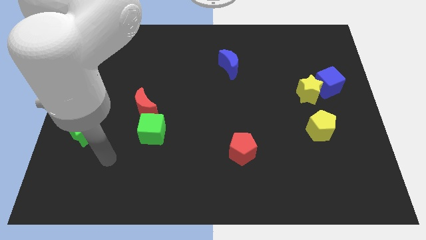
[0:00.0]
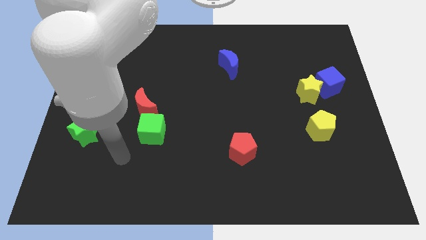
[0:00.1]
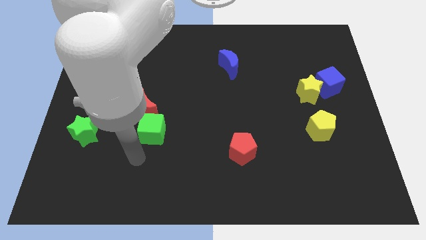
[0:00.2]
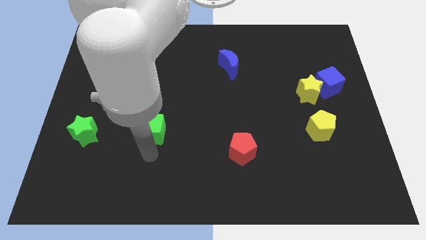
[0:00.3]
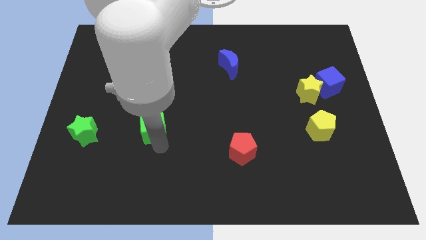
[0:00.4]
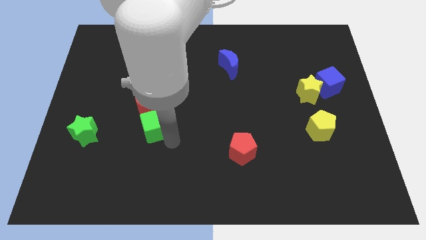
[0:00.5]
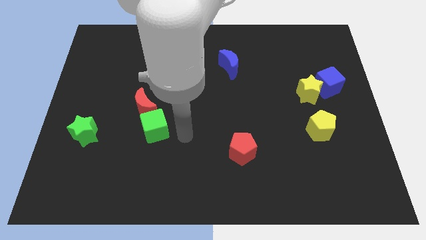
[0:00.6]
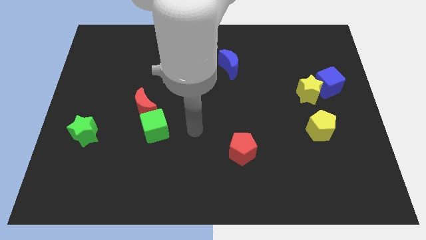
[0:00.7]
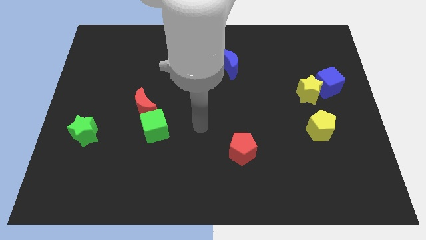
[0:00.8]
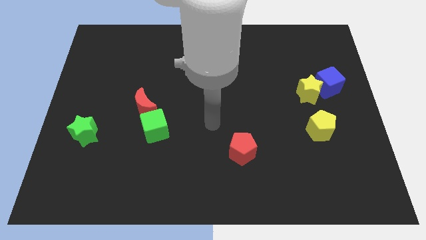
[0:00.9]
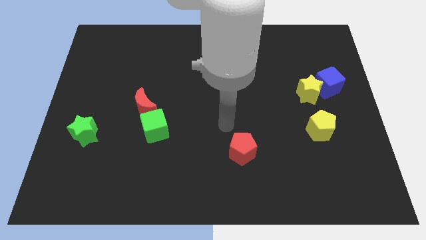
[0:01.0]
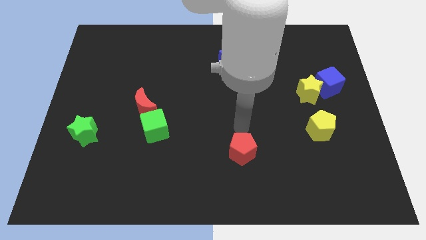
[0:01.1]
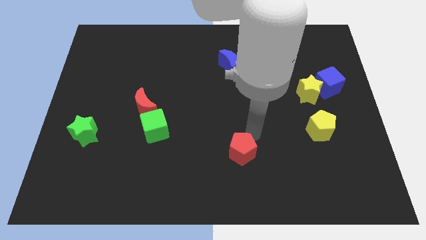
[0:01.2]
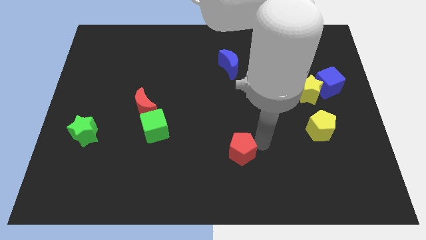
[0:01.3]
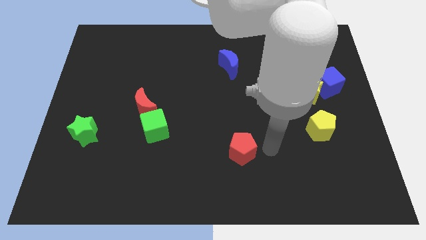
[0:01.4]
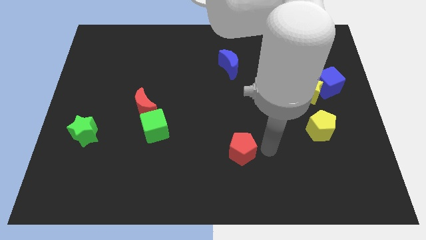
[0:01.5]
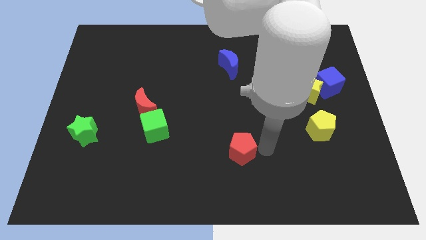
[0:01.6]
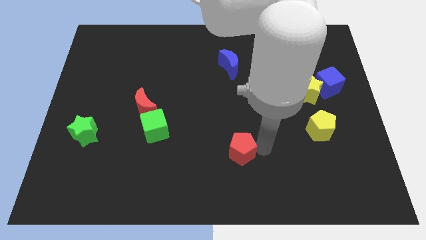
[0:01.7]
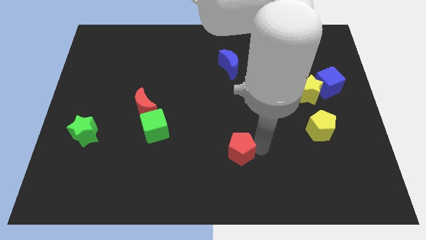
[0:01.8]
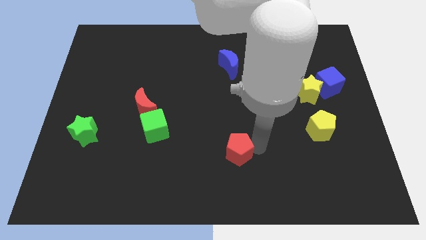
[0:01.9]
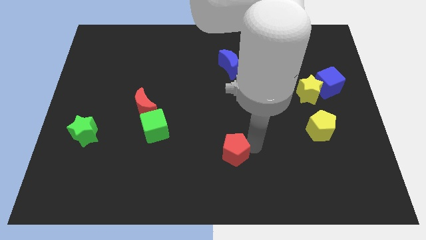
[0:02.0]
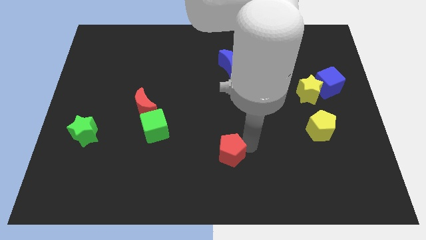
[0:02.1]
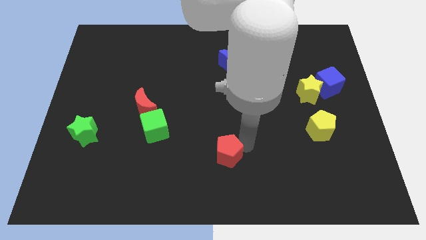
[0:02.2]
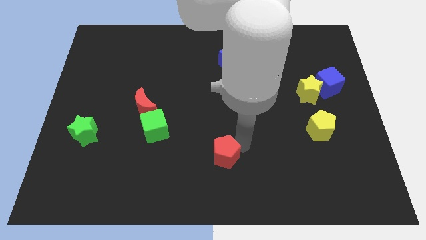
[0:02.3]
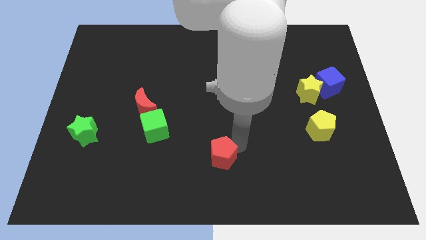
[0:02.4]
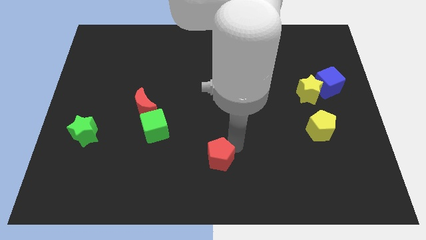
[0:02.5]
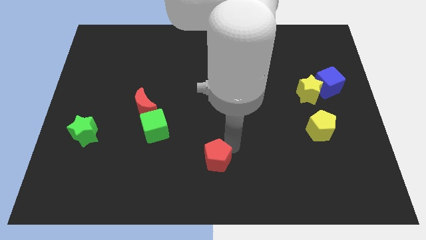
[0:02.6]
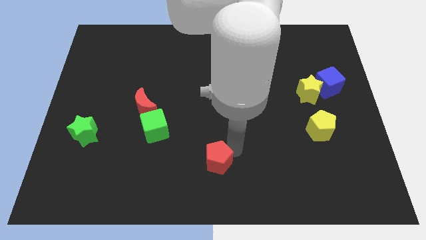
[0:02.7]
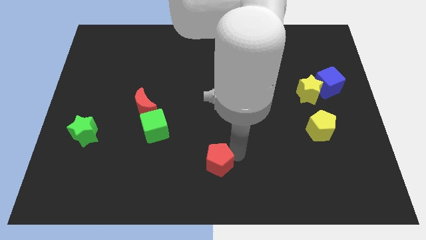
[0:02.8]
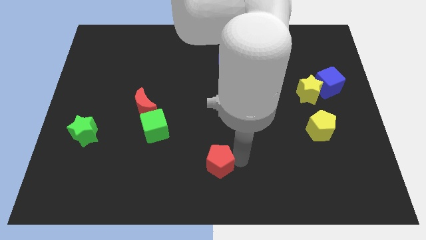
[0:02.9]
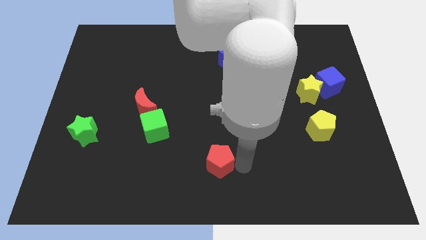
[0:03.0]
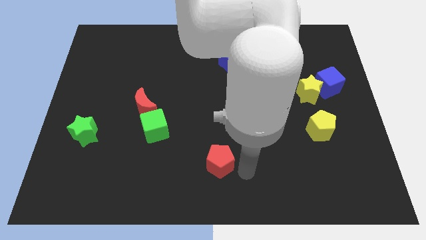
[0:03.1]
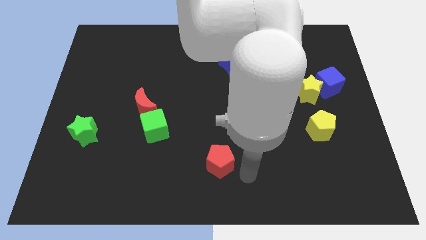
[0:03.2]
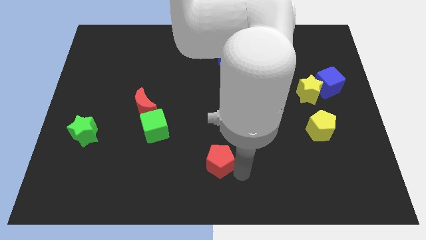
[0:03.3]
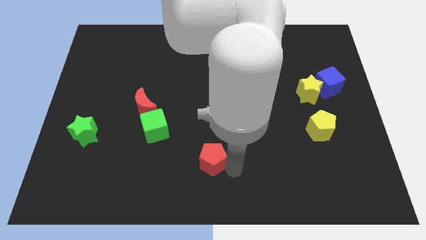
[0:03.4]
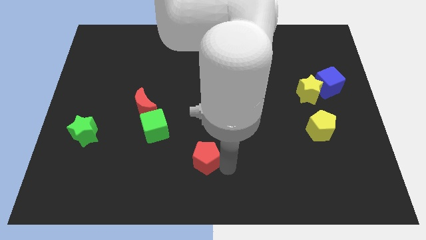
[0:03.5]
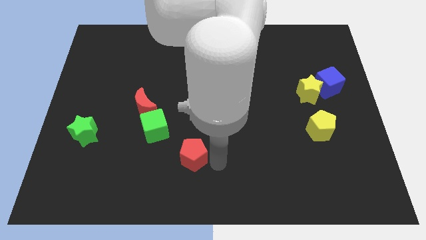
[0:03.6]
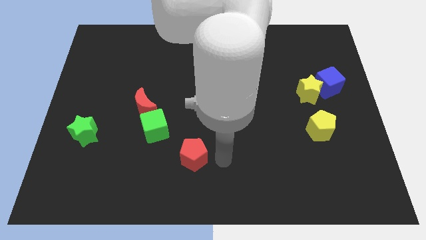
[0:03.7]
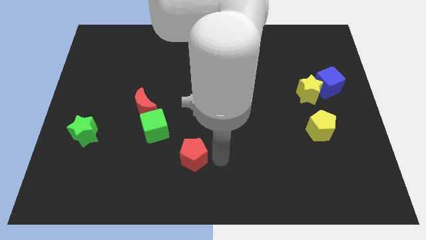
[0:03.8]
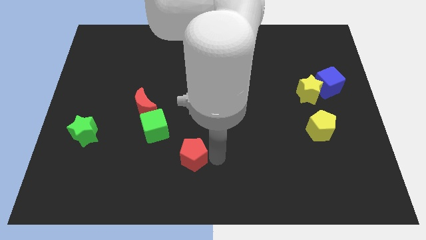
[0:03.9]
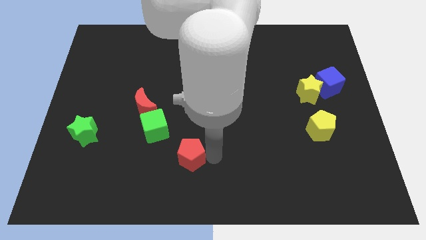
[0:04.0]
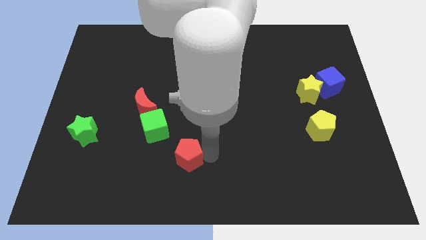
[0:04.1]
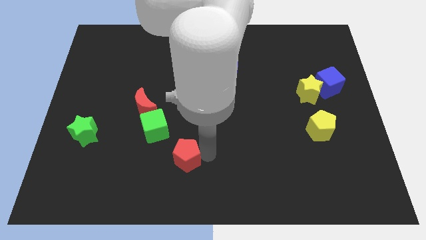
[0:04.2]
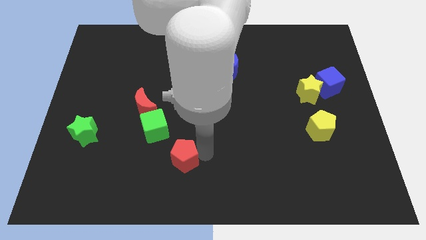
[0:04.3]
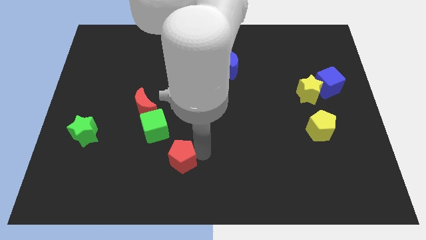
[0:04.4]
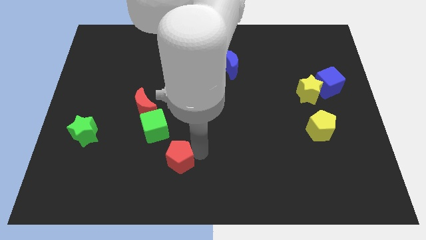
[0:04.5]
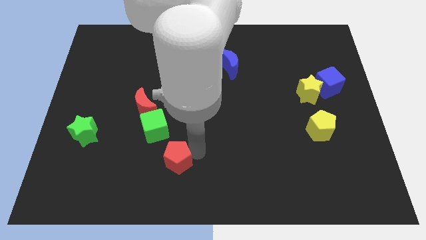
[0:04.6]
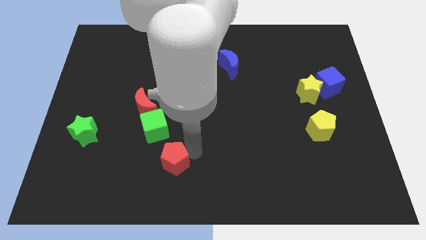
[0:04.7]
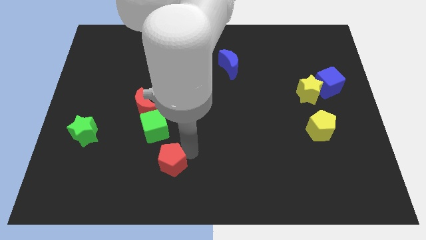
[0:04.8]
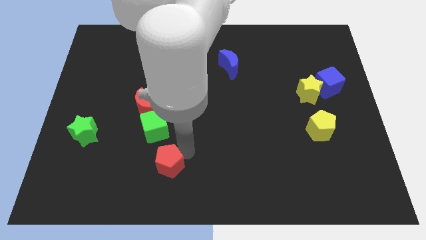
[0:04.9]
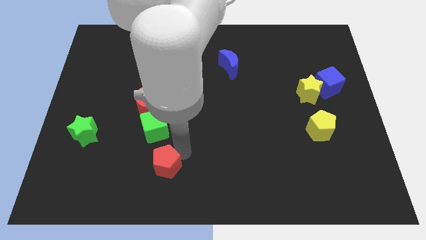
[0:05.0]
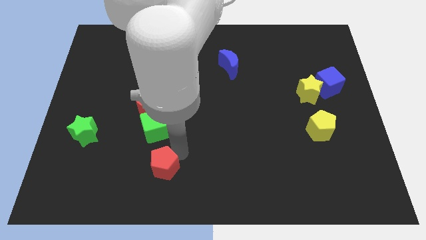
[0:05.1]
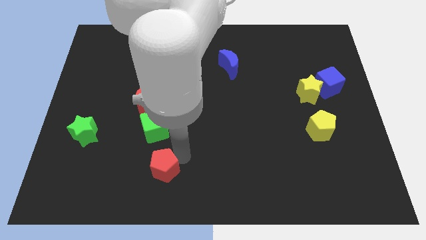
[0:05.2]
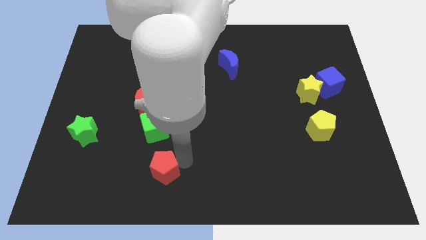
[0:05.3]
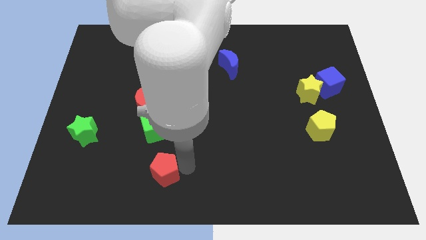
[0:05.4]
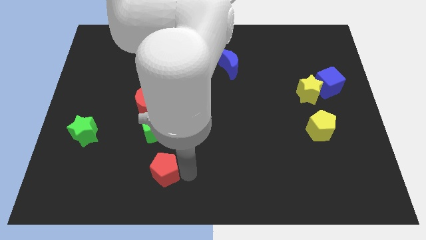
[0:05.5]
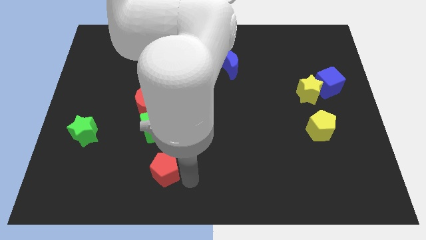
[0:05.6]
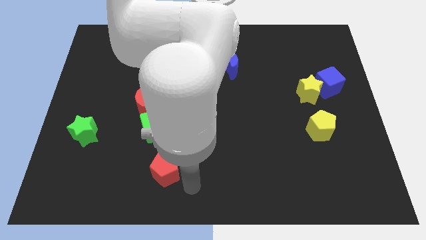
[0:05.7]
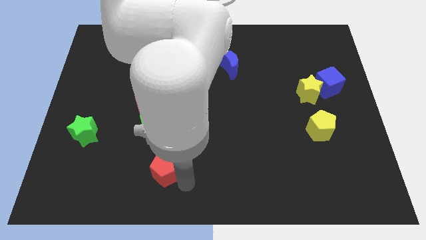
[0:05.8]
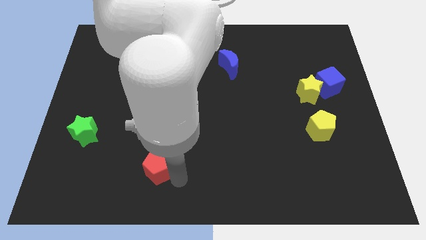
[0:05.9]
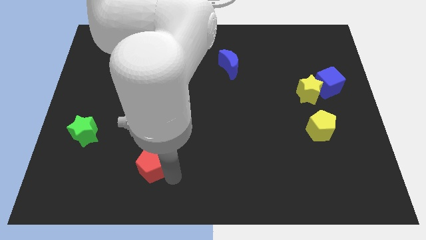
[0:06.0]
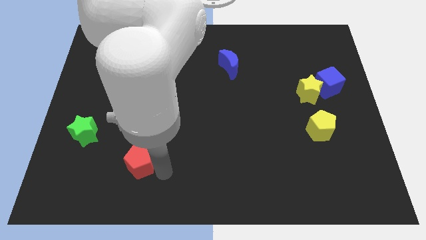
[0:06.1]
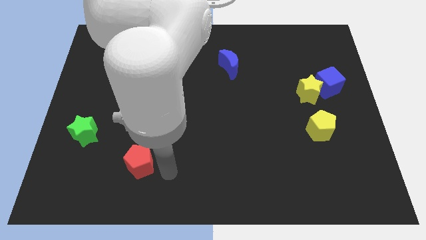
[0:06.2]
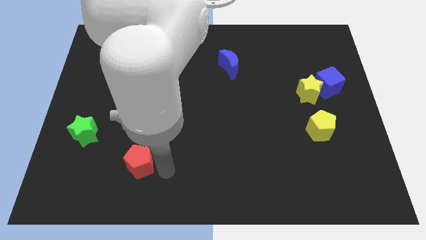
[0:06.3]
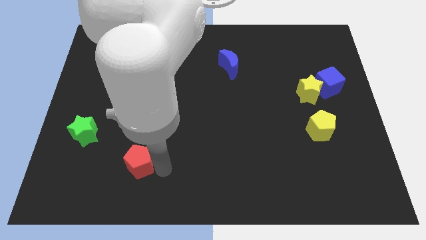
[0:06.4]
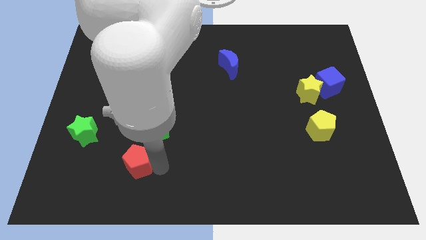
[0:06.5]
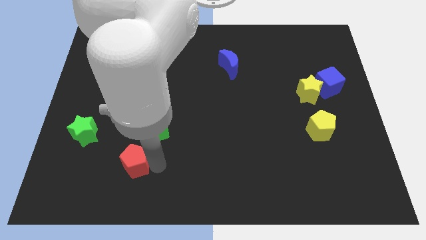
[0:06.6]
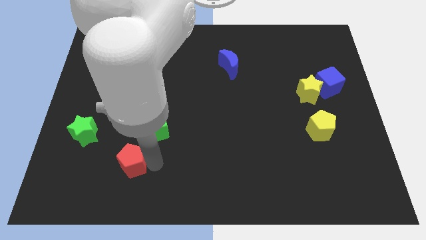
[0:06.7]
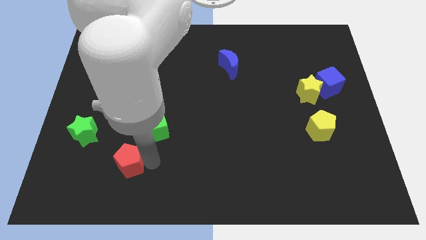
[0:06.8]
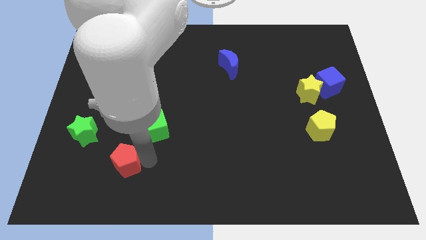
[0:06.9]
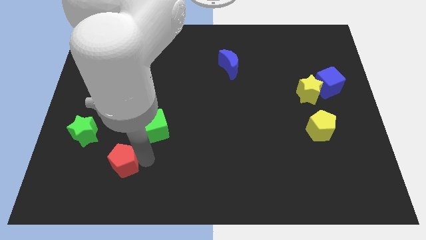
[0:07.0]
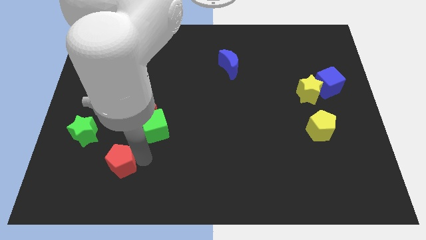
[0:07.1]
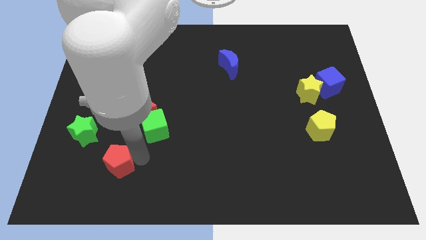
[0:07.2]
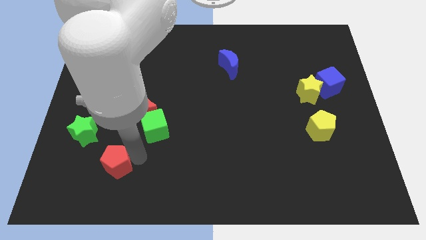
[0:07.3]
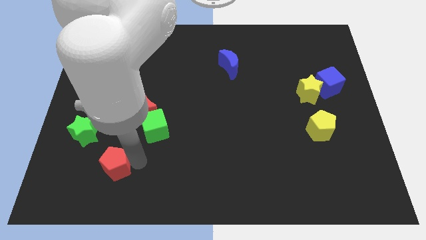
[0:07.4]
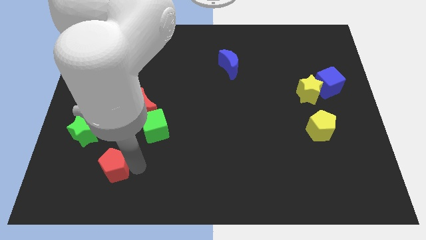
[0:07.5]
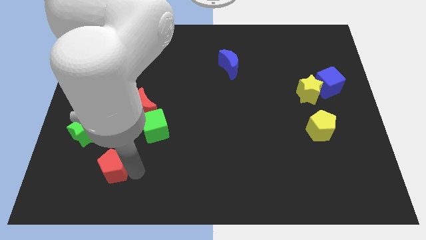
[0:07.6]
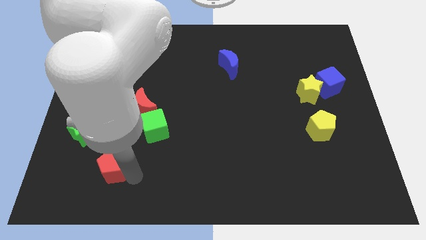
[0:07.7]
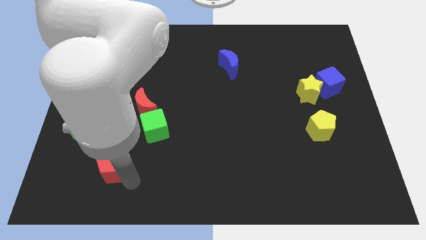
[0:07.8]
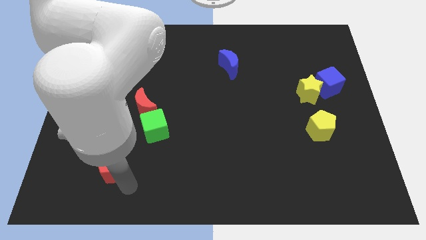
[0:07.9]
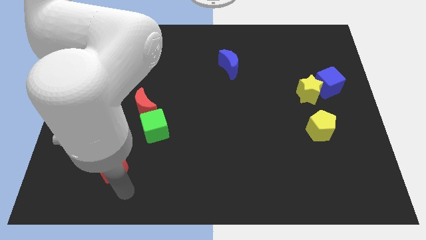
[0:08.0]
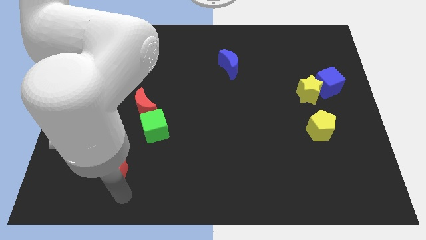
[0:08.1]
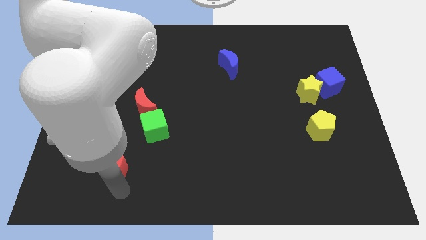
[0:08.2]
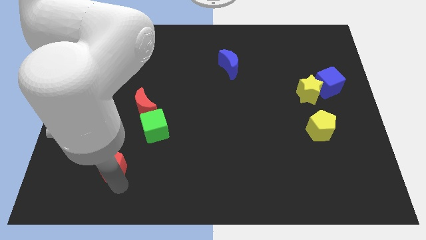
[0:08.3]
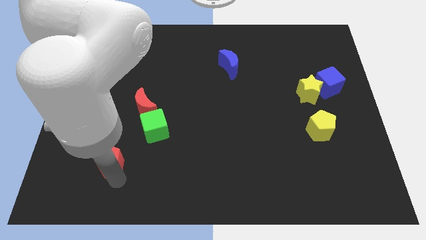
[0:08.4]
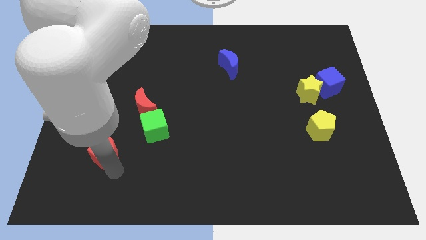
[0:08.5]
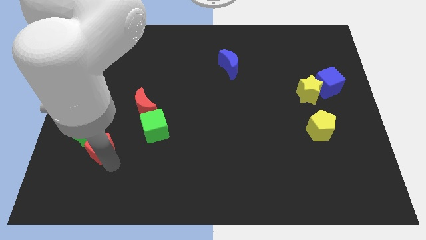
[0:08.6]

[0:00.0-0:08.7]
put the red pentagon close to the green star
